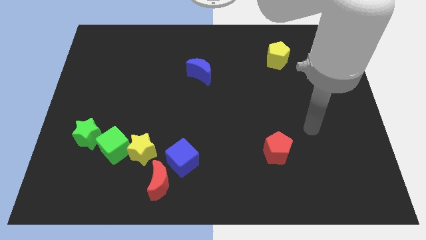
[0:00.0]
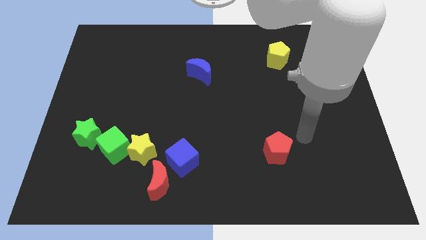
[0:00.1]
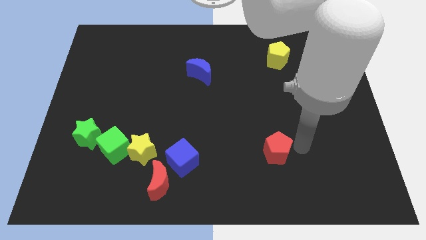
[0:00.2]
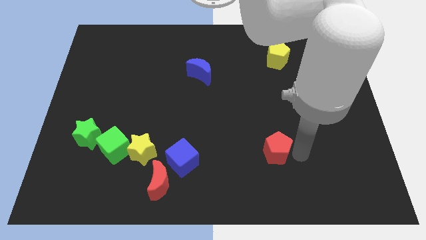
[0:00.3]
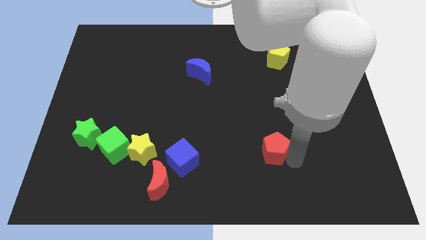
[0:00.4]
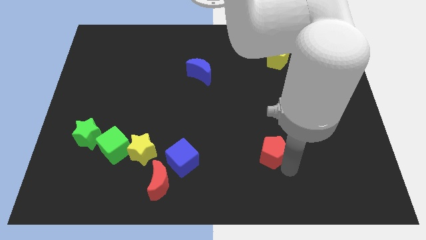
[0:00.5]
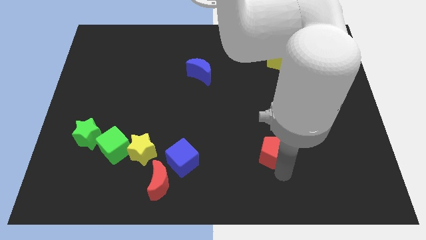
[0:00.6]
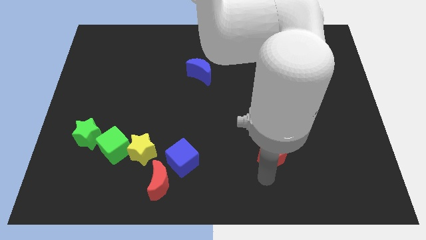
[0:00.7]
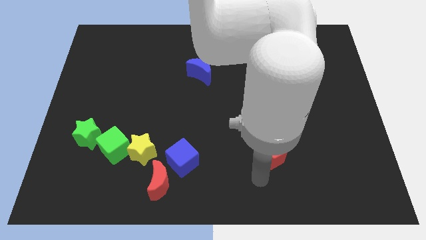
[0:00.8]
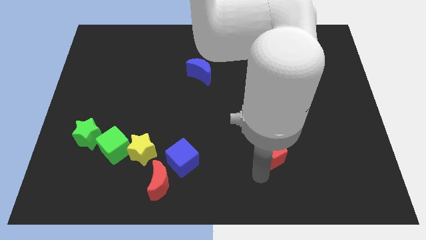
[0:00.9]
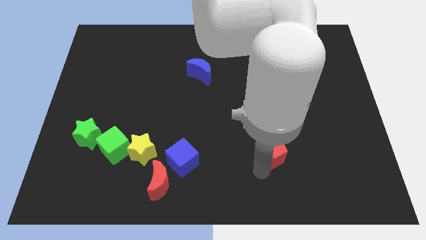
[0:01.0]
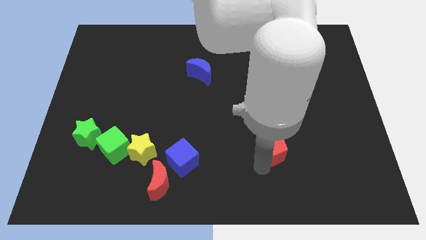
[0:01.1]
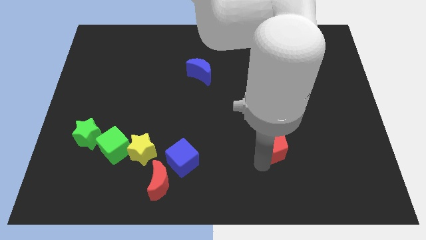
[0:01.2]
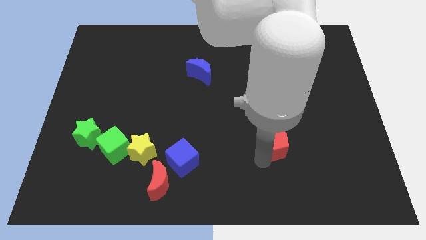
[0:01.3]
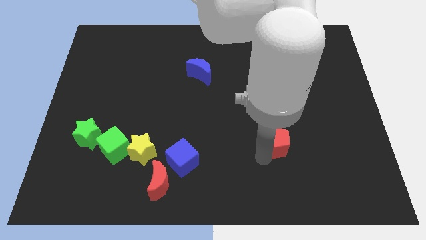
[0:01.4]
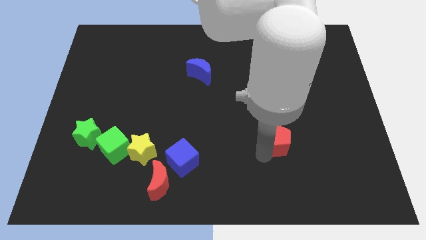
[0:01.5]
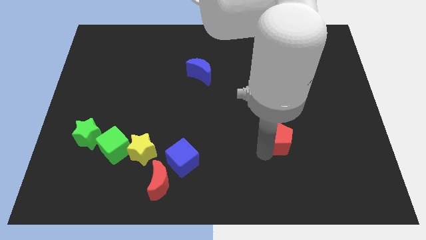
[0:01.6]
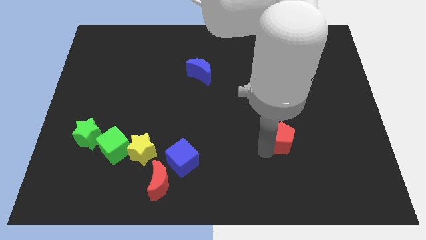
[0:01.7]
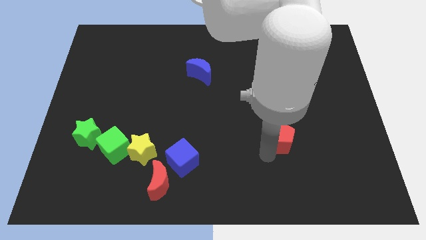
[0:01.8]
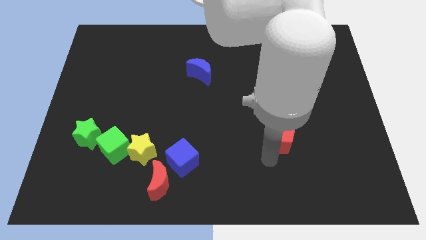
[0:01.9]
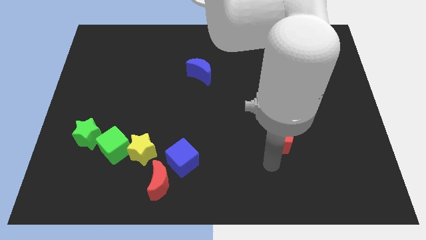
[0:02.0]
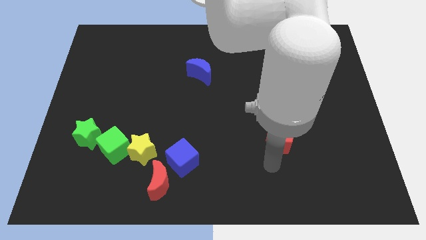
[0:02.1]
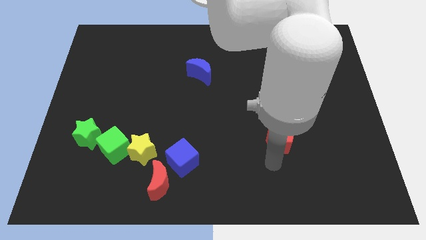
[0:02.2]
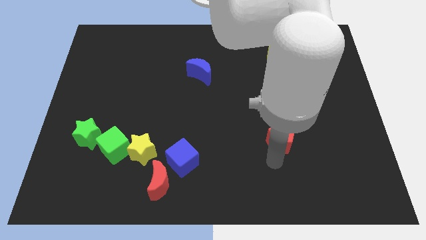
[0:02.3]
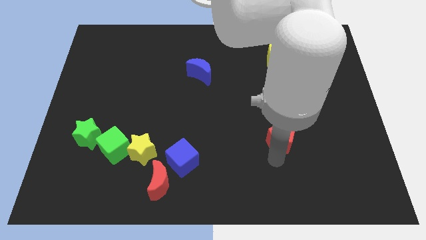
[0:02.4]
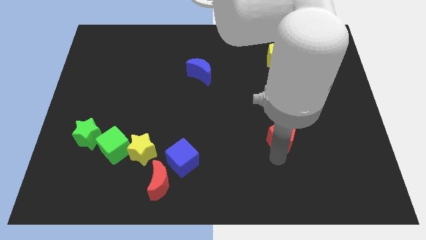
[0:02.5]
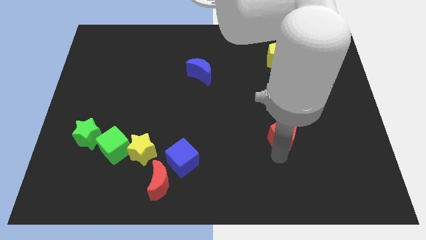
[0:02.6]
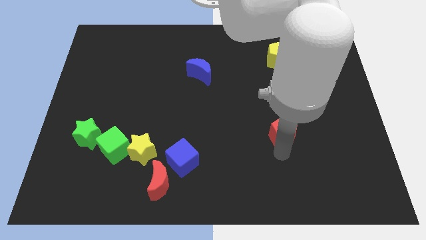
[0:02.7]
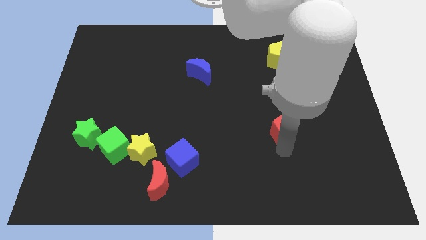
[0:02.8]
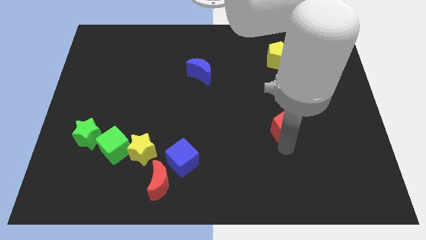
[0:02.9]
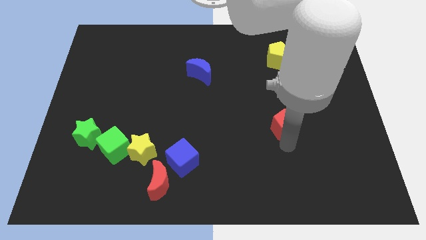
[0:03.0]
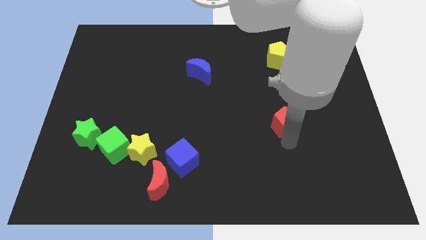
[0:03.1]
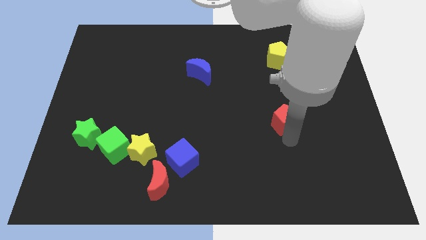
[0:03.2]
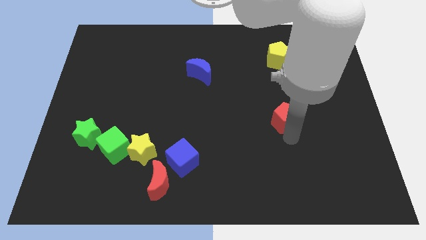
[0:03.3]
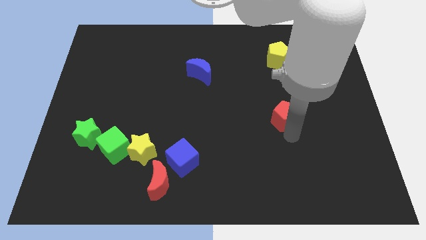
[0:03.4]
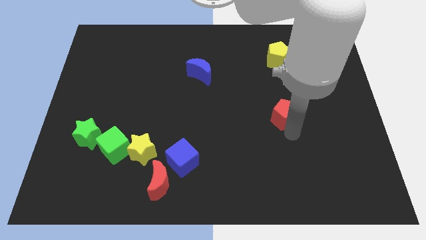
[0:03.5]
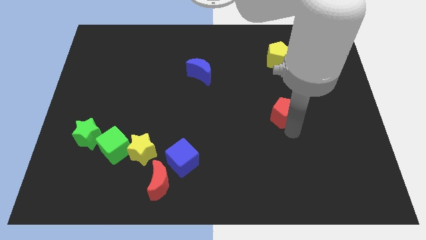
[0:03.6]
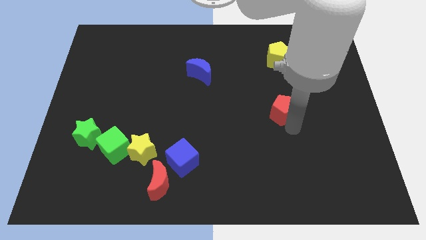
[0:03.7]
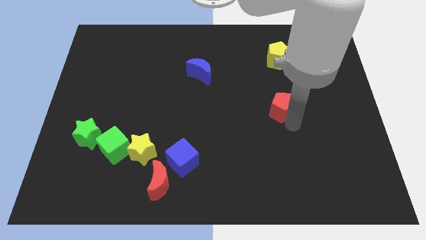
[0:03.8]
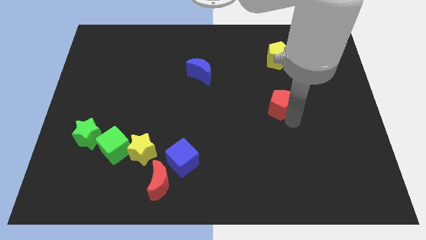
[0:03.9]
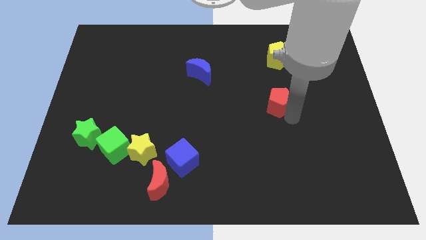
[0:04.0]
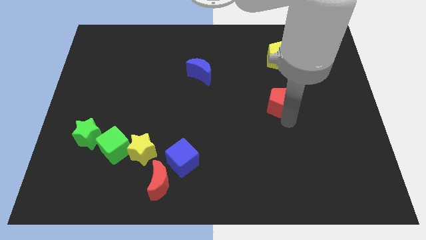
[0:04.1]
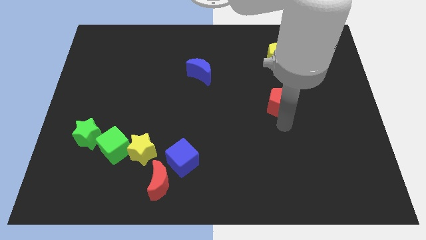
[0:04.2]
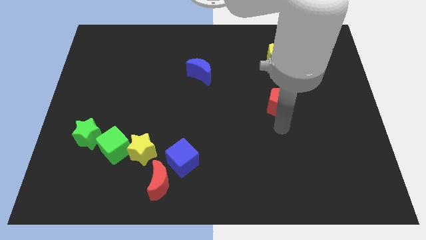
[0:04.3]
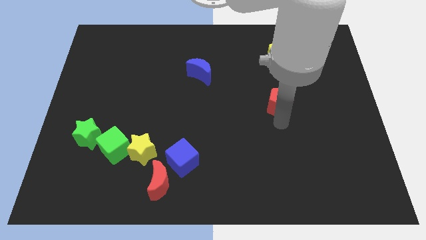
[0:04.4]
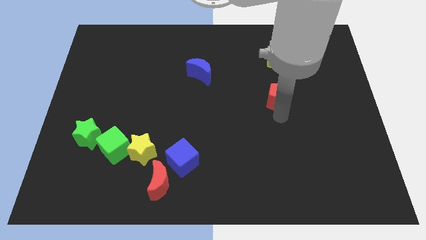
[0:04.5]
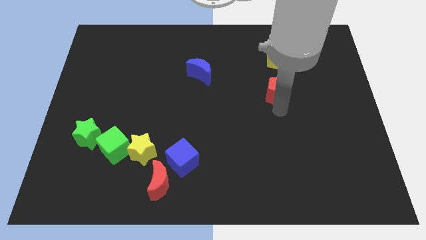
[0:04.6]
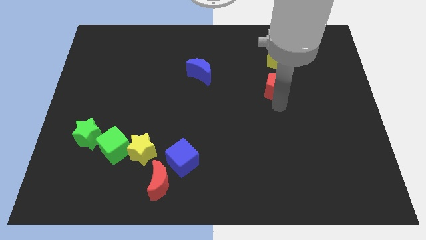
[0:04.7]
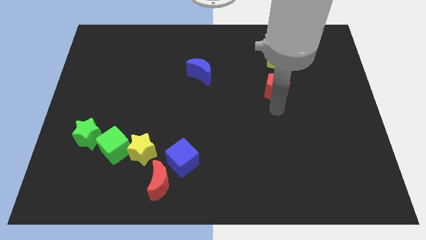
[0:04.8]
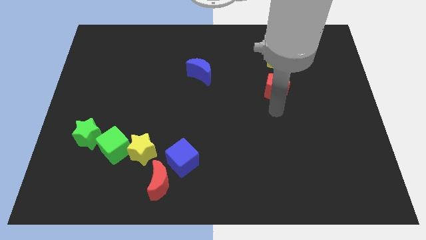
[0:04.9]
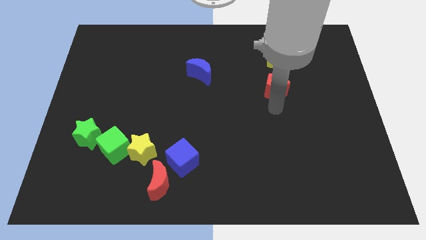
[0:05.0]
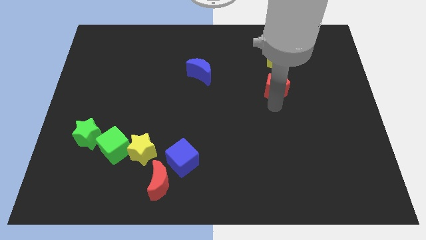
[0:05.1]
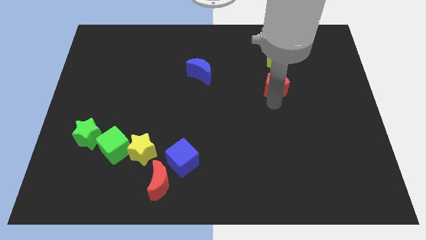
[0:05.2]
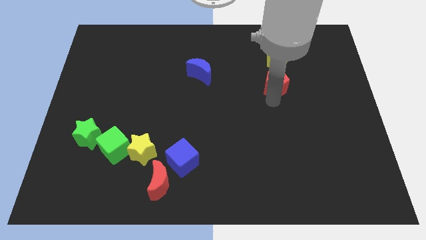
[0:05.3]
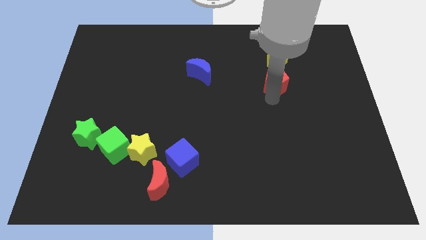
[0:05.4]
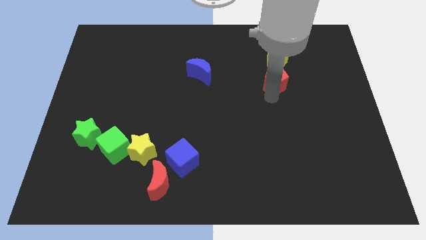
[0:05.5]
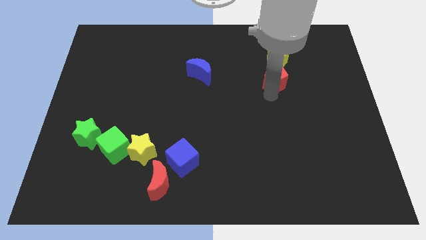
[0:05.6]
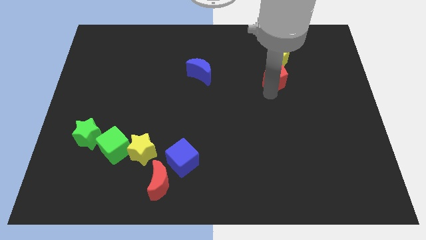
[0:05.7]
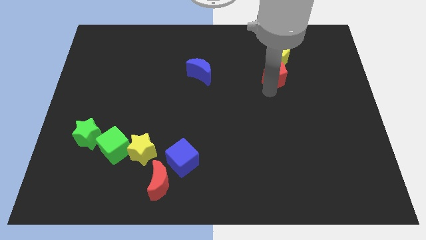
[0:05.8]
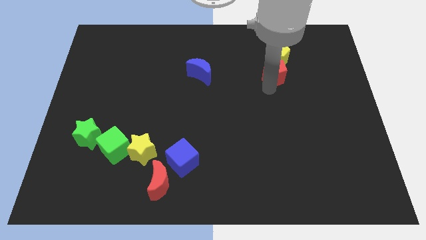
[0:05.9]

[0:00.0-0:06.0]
push the red pentagon close to the yellow pentagon
